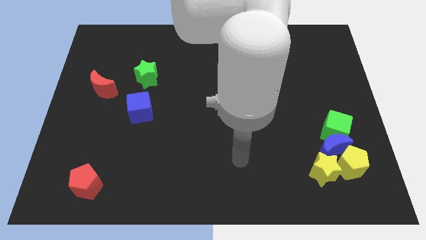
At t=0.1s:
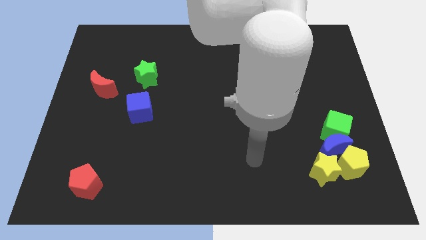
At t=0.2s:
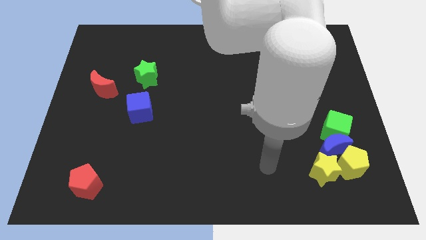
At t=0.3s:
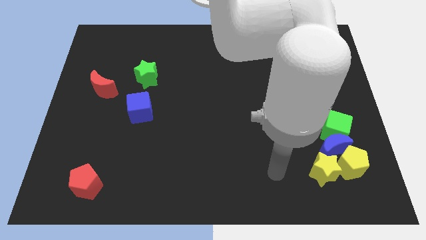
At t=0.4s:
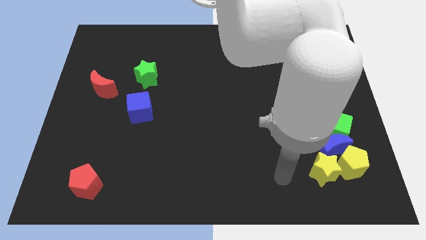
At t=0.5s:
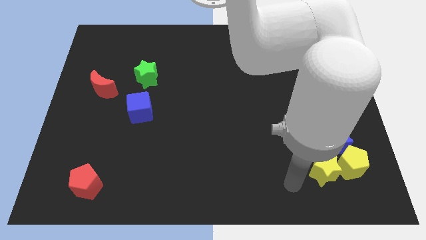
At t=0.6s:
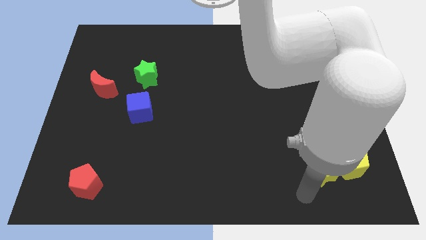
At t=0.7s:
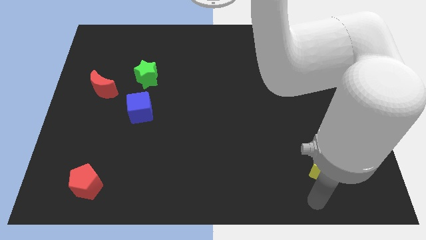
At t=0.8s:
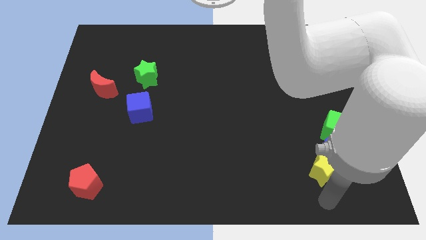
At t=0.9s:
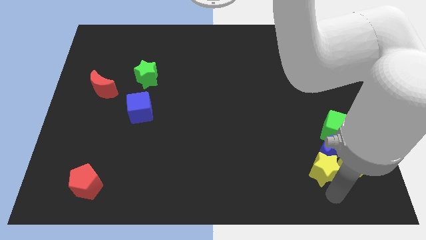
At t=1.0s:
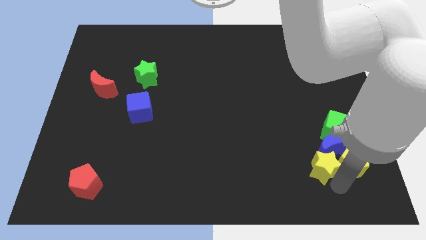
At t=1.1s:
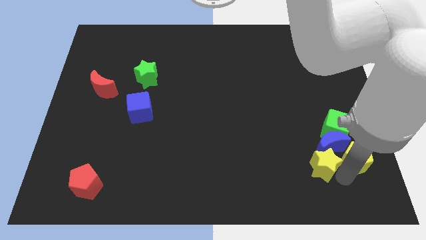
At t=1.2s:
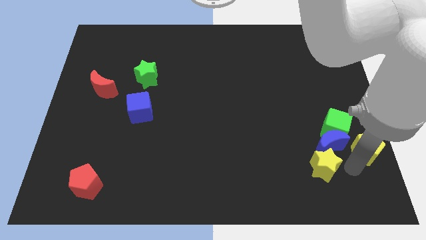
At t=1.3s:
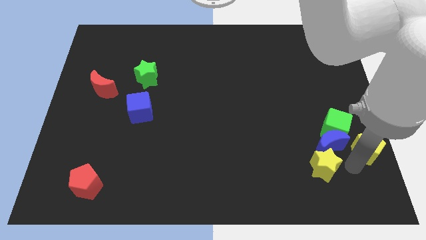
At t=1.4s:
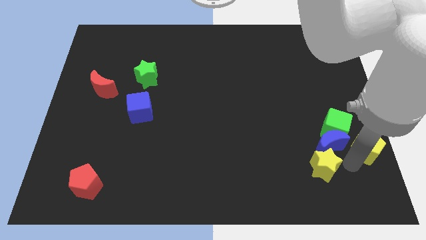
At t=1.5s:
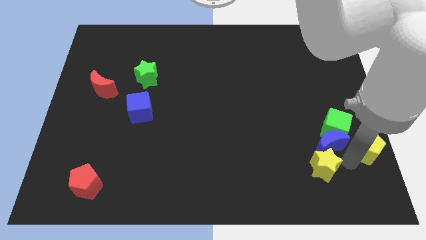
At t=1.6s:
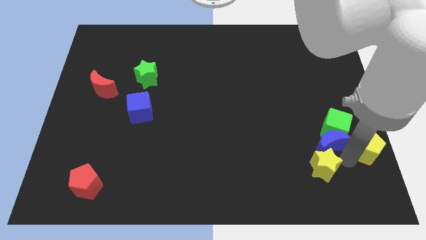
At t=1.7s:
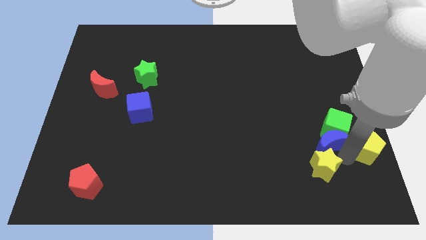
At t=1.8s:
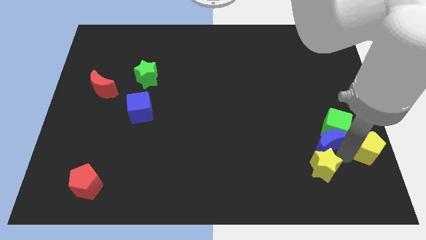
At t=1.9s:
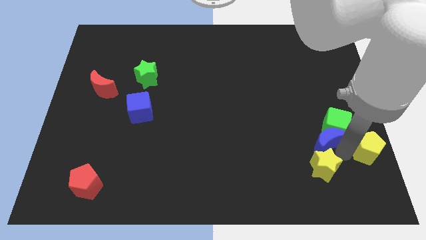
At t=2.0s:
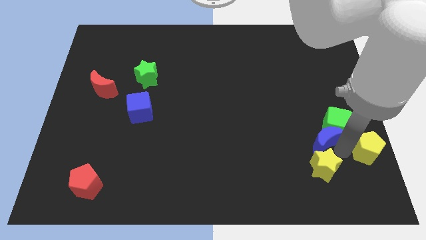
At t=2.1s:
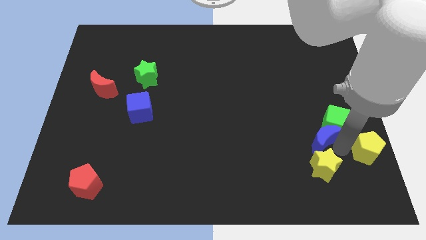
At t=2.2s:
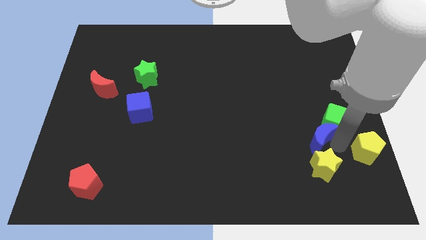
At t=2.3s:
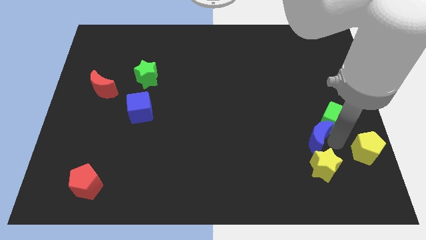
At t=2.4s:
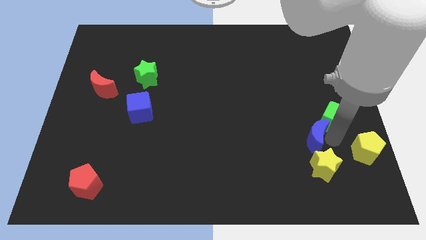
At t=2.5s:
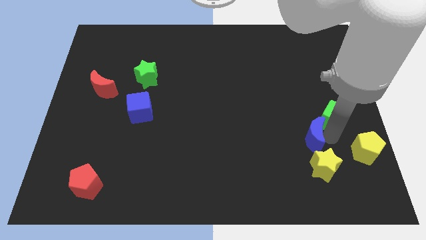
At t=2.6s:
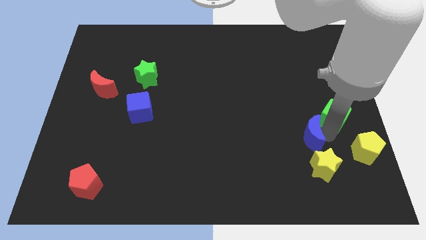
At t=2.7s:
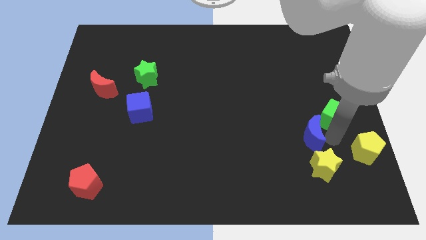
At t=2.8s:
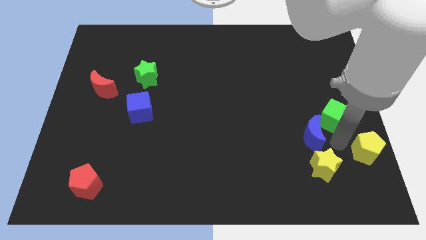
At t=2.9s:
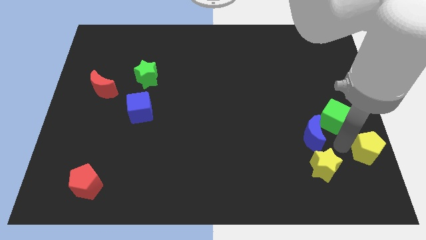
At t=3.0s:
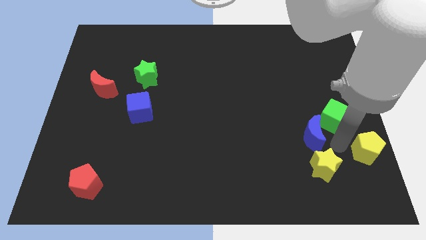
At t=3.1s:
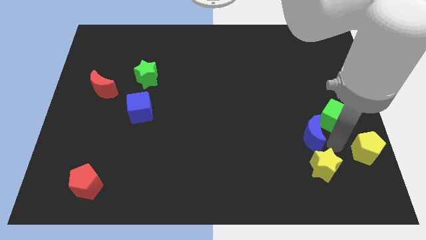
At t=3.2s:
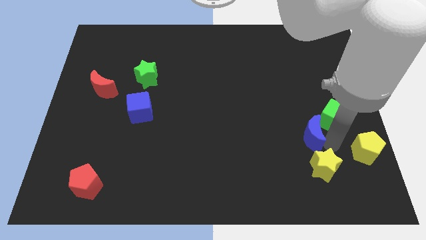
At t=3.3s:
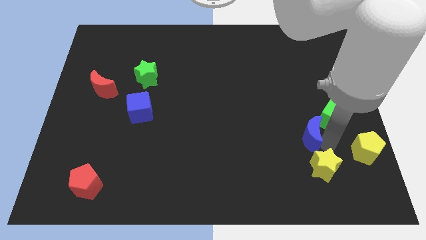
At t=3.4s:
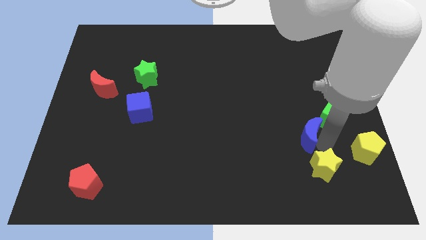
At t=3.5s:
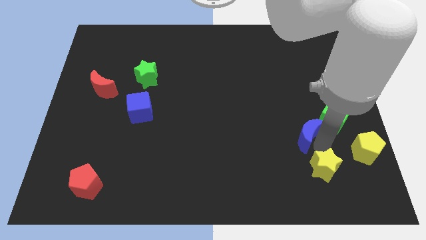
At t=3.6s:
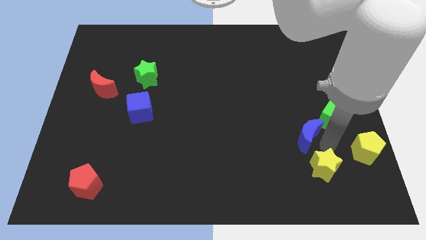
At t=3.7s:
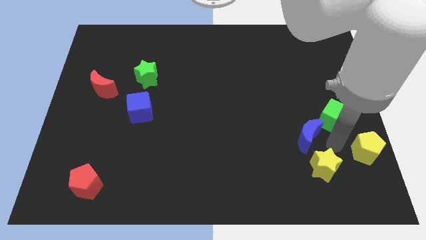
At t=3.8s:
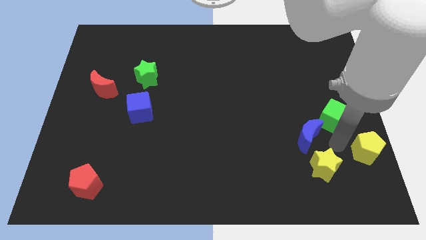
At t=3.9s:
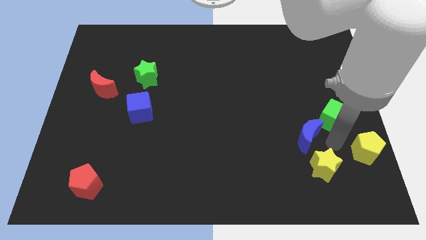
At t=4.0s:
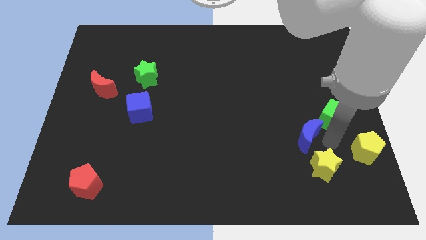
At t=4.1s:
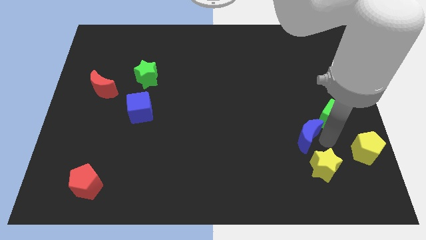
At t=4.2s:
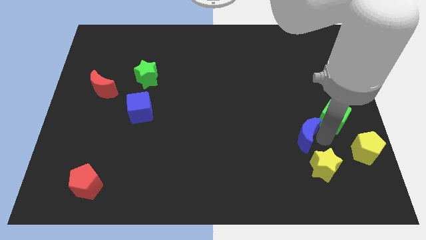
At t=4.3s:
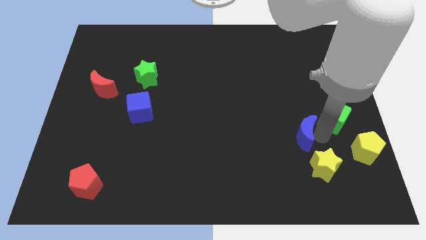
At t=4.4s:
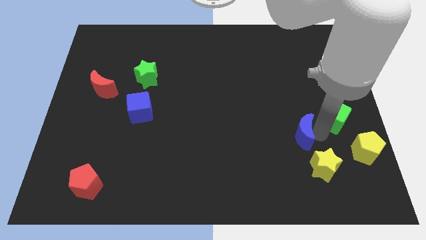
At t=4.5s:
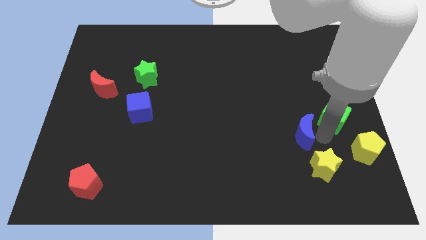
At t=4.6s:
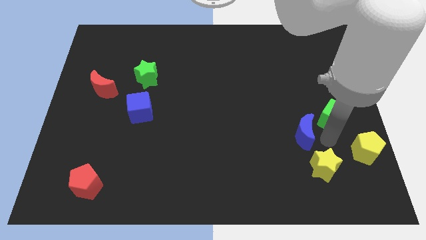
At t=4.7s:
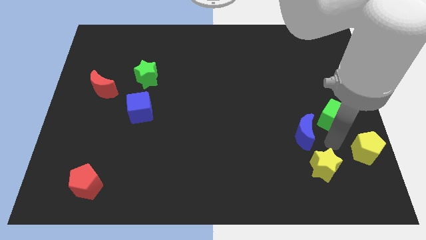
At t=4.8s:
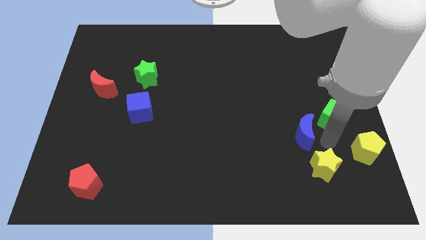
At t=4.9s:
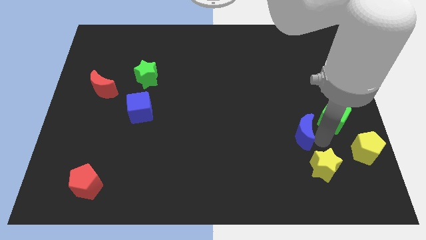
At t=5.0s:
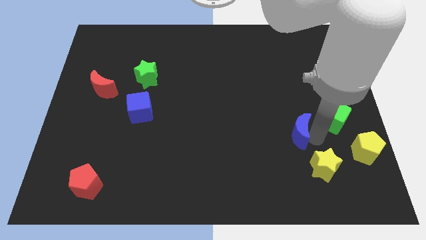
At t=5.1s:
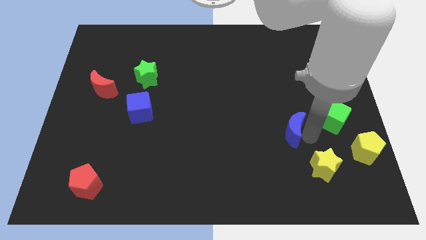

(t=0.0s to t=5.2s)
move the blue moon away from the green cube, yellow pentagon, and yellow star

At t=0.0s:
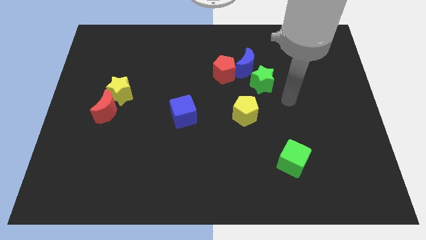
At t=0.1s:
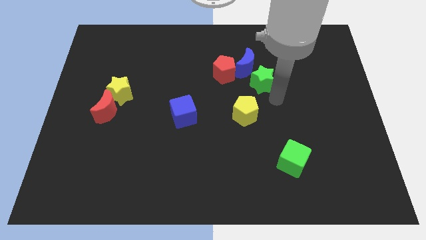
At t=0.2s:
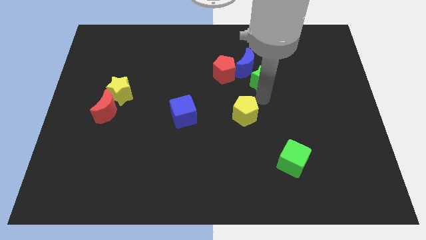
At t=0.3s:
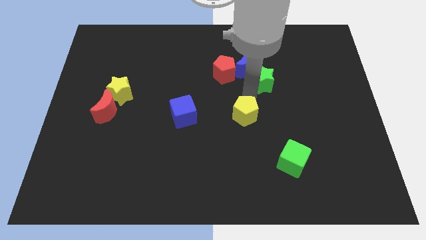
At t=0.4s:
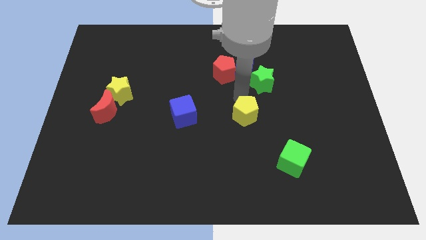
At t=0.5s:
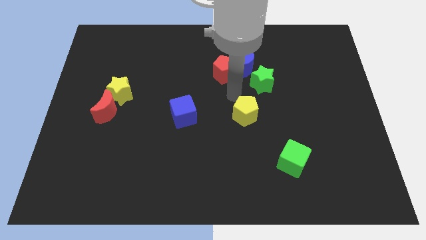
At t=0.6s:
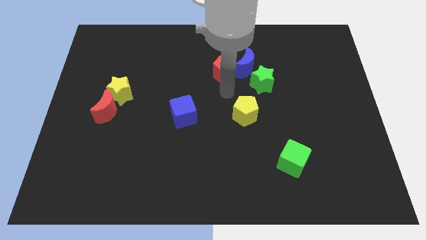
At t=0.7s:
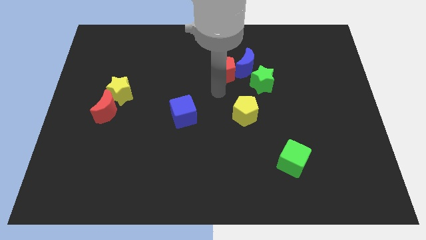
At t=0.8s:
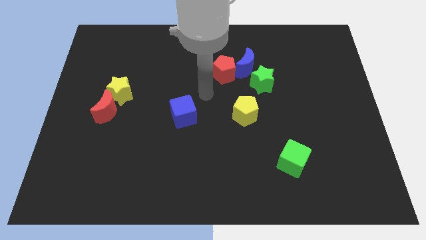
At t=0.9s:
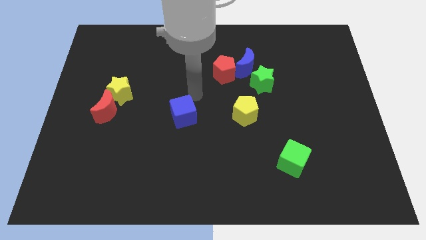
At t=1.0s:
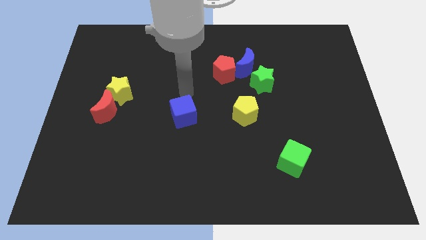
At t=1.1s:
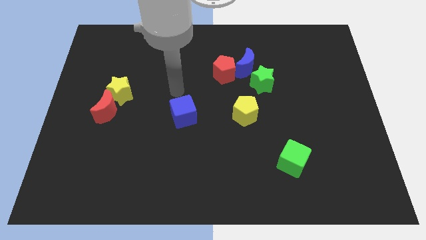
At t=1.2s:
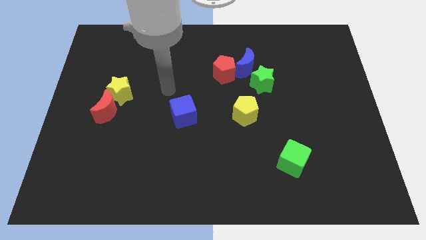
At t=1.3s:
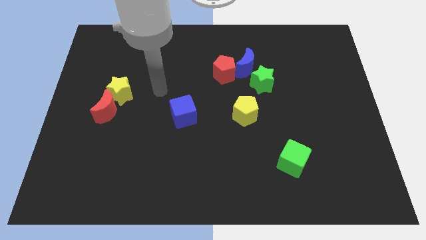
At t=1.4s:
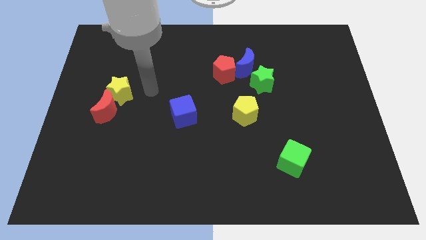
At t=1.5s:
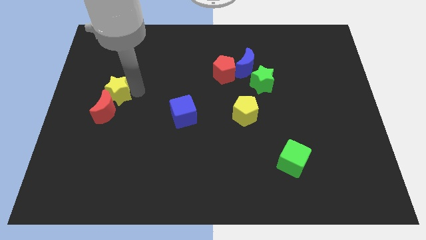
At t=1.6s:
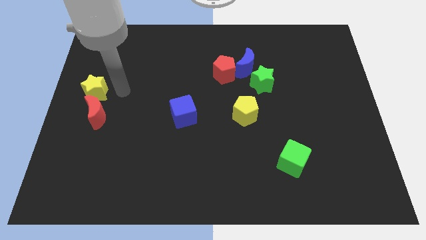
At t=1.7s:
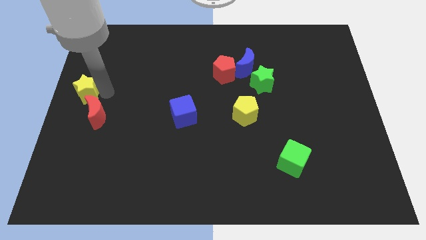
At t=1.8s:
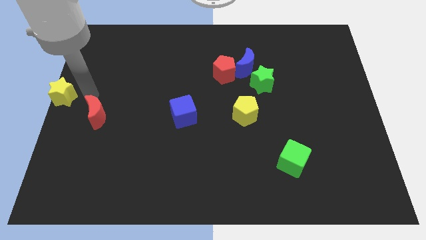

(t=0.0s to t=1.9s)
pull the red moon apart from the yellow star

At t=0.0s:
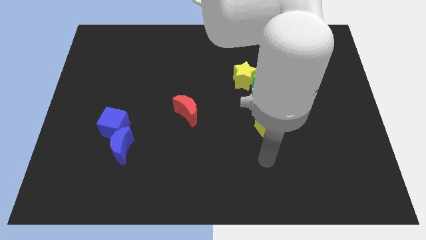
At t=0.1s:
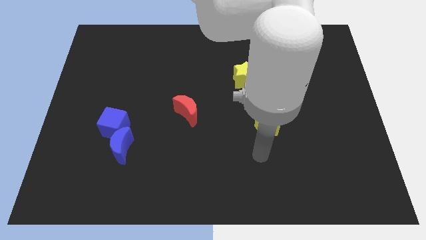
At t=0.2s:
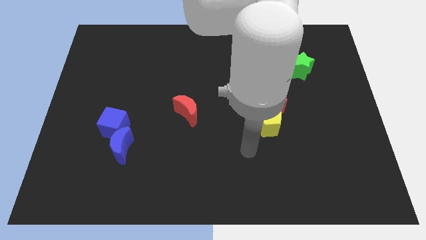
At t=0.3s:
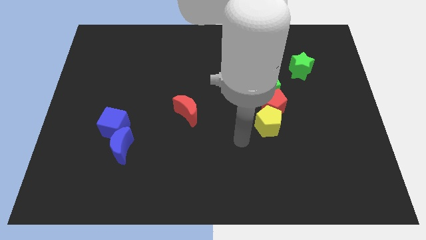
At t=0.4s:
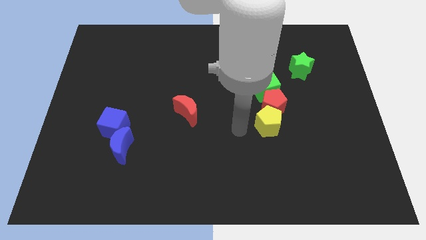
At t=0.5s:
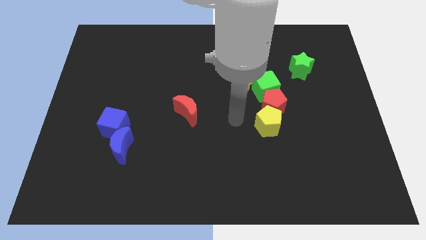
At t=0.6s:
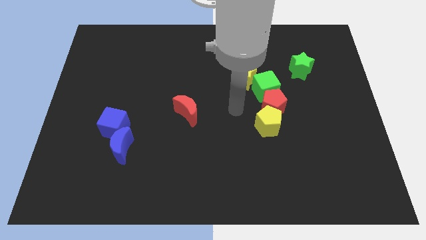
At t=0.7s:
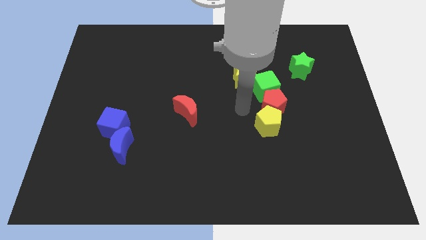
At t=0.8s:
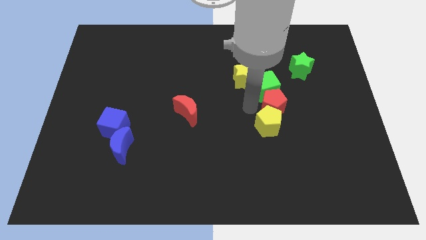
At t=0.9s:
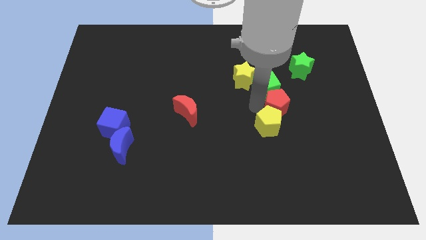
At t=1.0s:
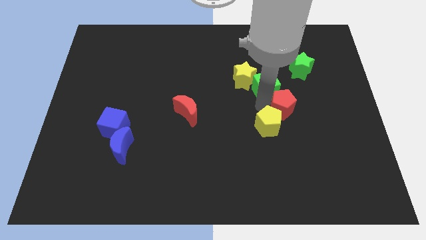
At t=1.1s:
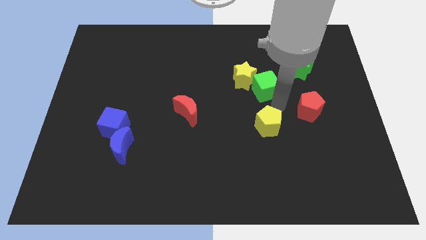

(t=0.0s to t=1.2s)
separate the yellow pentagon from the red pentagon

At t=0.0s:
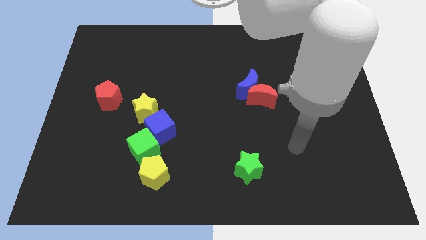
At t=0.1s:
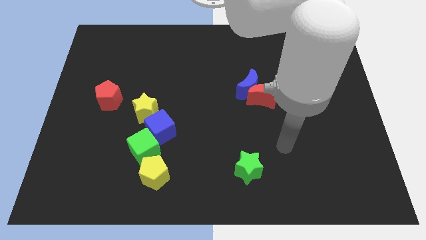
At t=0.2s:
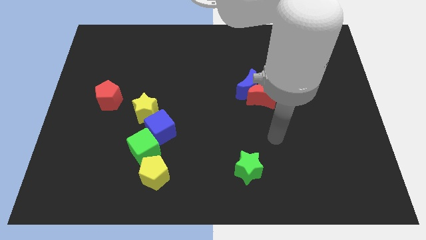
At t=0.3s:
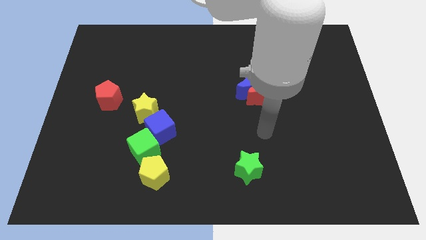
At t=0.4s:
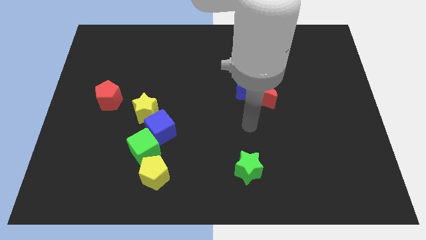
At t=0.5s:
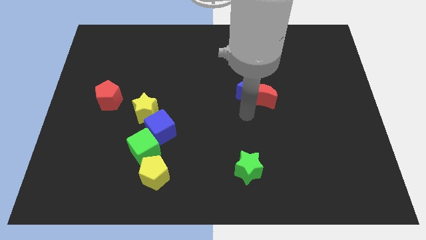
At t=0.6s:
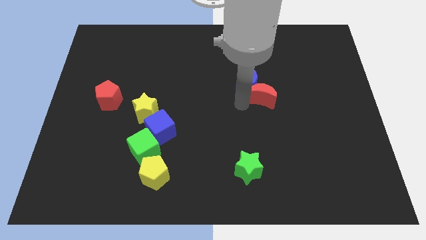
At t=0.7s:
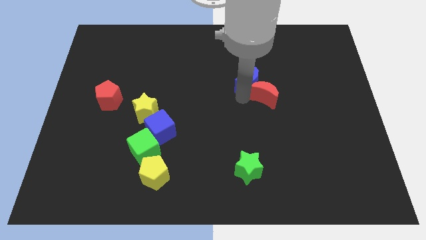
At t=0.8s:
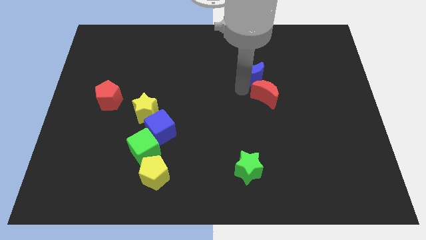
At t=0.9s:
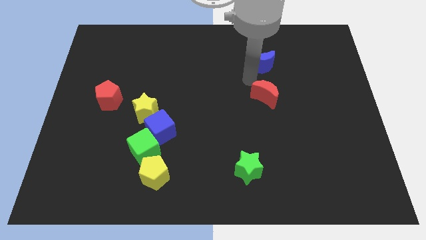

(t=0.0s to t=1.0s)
move the red moon away from the blue moon
